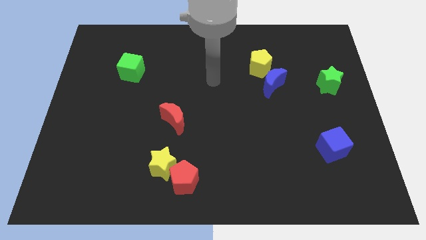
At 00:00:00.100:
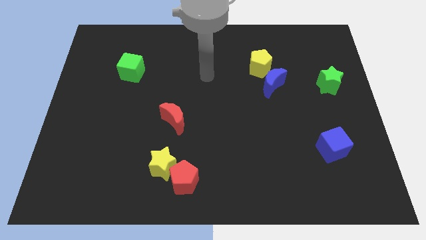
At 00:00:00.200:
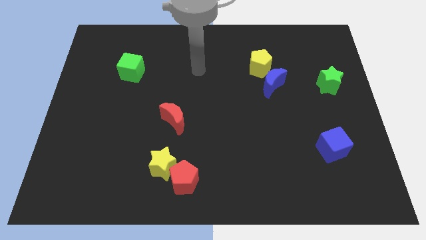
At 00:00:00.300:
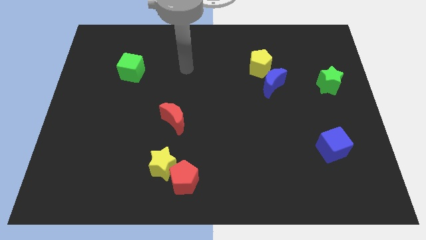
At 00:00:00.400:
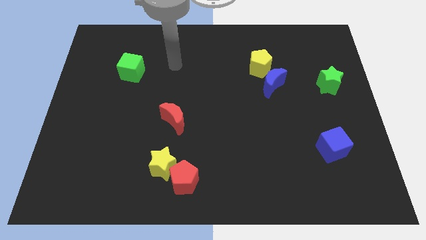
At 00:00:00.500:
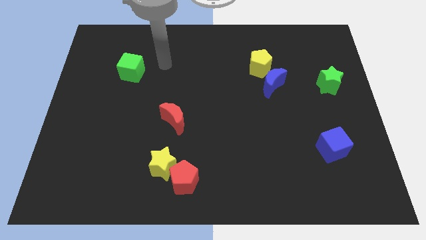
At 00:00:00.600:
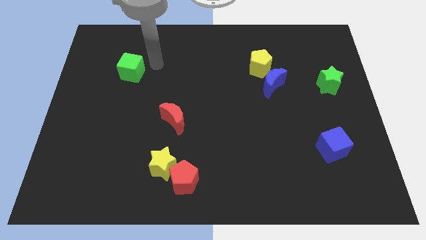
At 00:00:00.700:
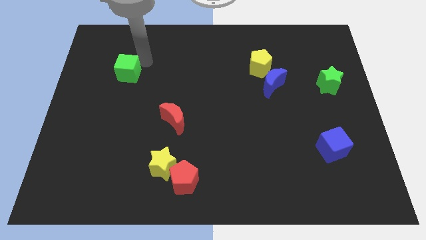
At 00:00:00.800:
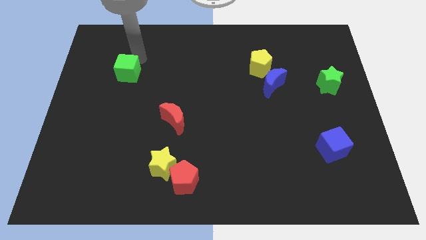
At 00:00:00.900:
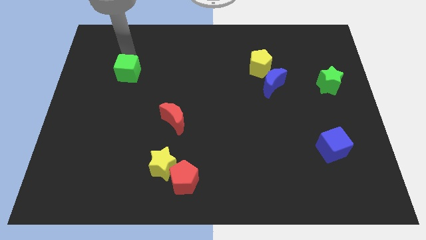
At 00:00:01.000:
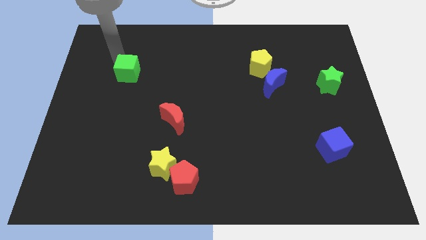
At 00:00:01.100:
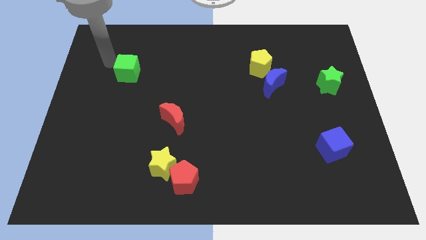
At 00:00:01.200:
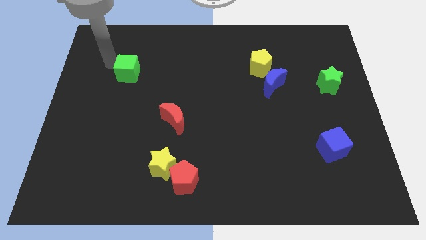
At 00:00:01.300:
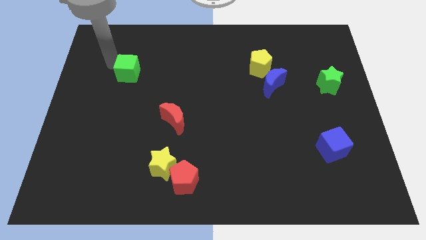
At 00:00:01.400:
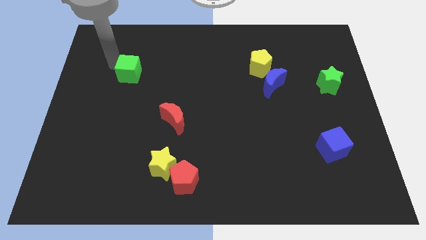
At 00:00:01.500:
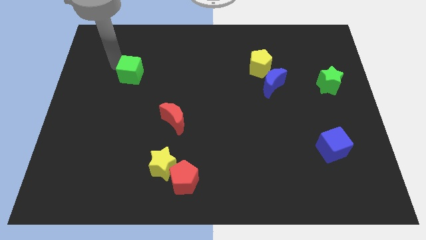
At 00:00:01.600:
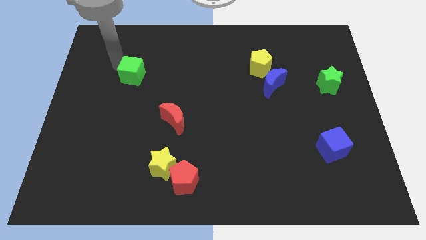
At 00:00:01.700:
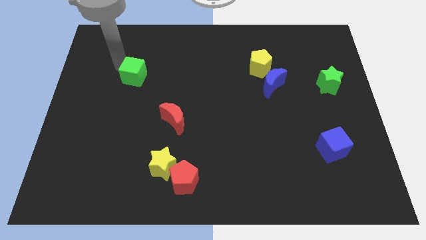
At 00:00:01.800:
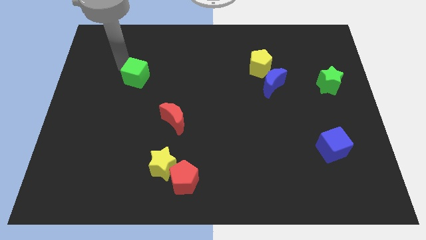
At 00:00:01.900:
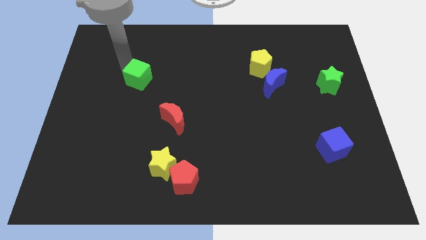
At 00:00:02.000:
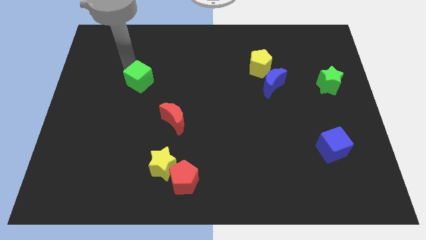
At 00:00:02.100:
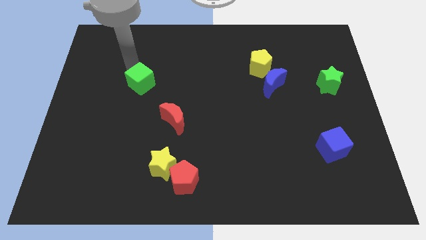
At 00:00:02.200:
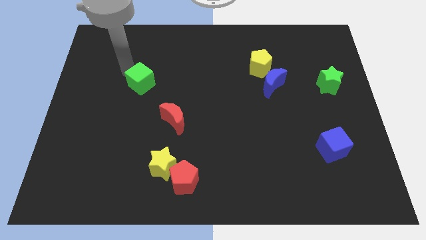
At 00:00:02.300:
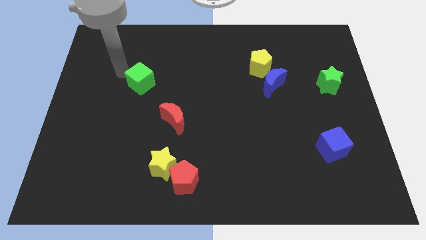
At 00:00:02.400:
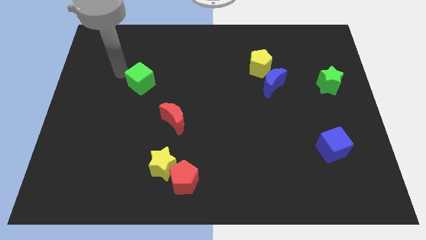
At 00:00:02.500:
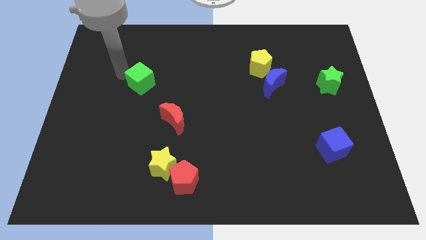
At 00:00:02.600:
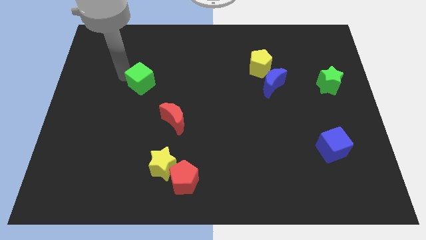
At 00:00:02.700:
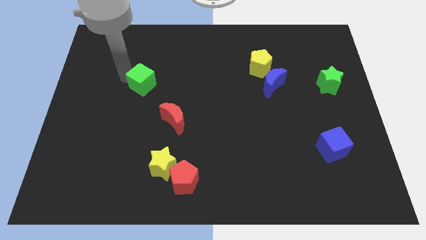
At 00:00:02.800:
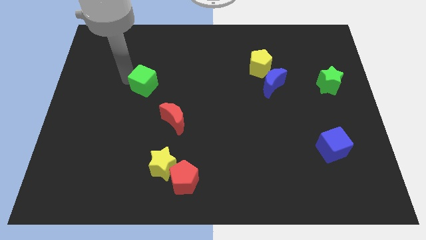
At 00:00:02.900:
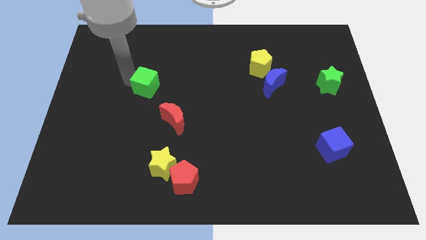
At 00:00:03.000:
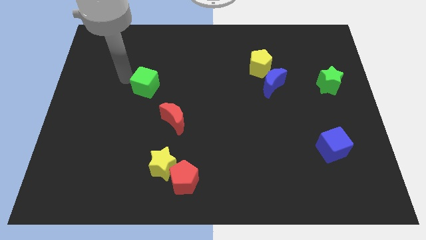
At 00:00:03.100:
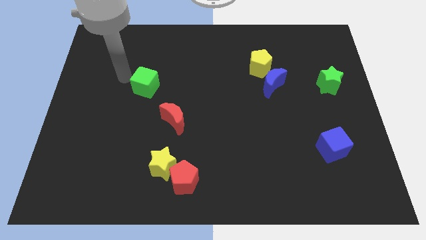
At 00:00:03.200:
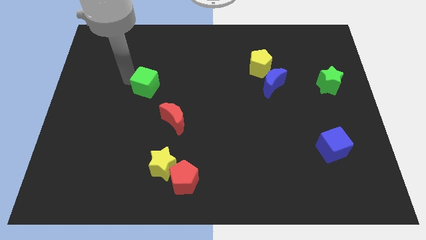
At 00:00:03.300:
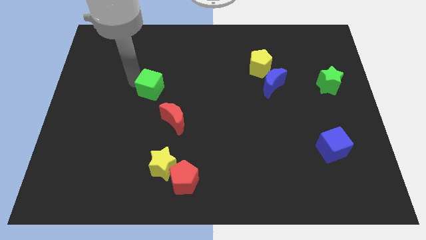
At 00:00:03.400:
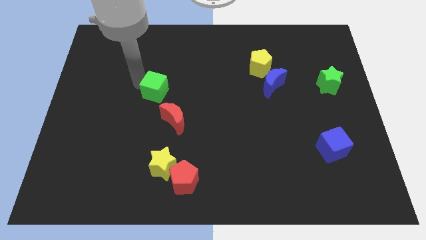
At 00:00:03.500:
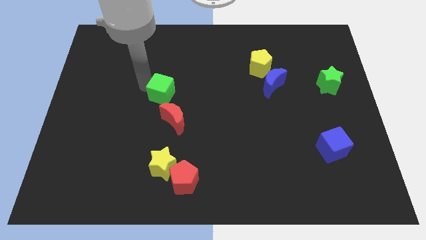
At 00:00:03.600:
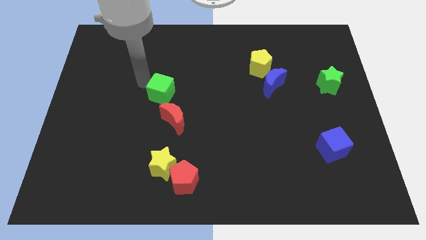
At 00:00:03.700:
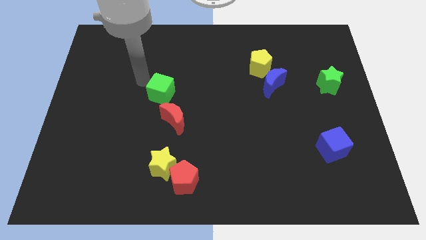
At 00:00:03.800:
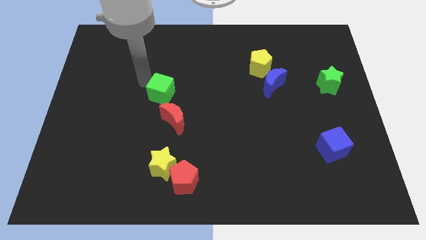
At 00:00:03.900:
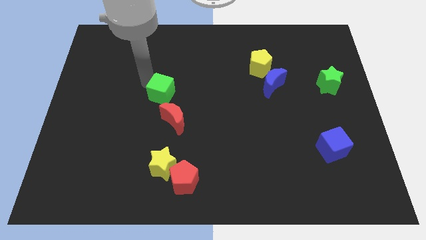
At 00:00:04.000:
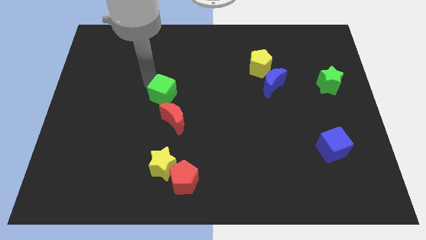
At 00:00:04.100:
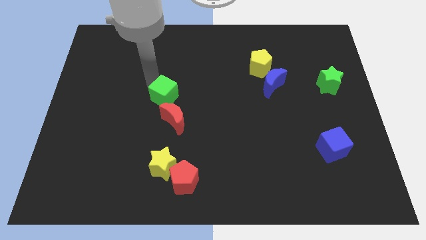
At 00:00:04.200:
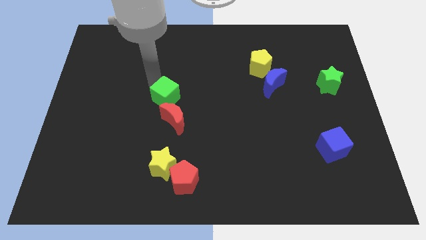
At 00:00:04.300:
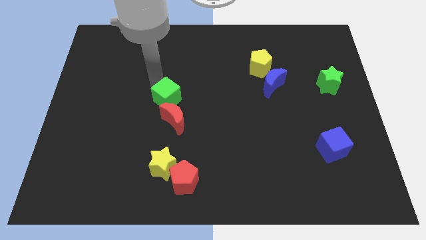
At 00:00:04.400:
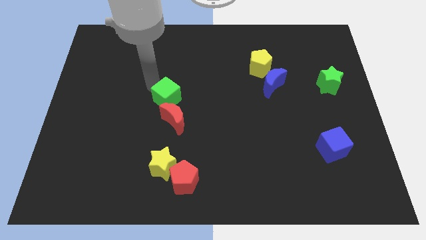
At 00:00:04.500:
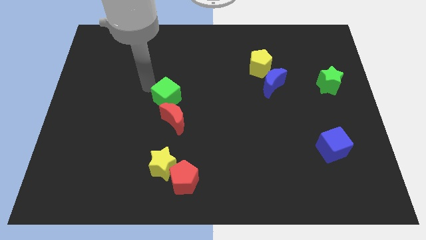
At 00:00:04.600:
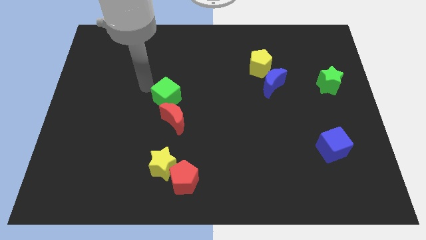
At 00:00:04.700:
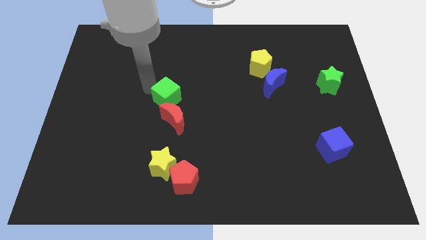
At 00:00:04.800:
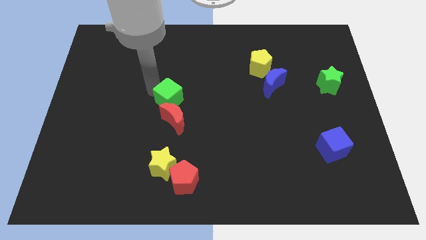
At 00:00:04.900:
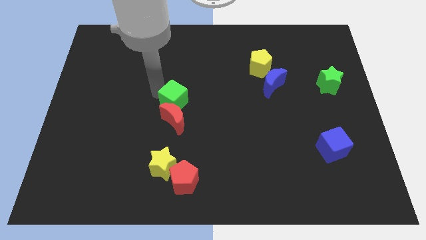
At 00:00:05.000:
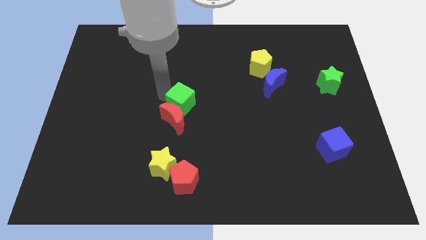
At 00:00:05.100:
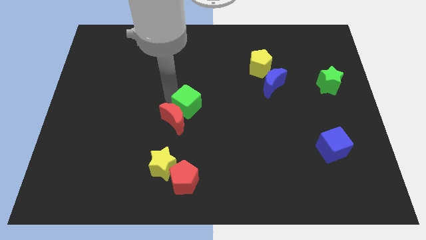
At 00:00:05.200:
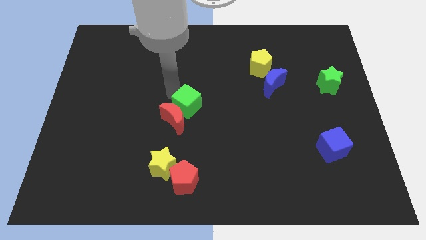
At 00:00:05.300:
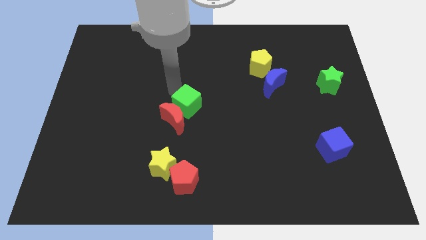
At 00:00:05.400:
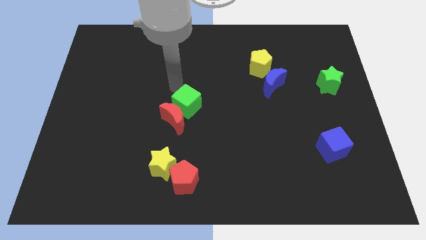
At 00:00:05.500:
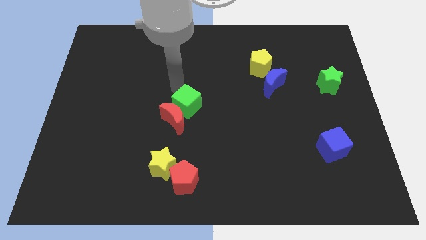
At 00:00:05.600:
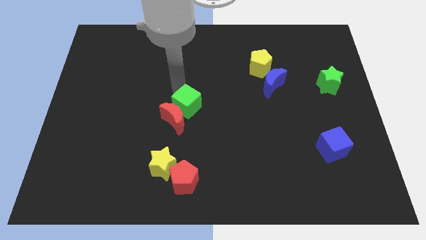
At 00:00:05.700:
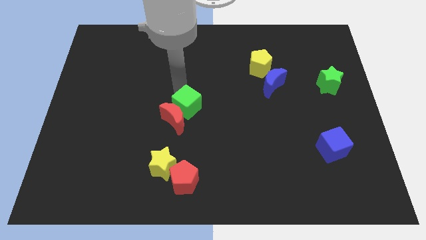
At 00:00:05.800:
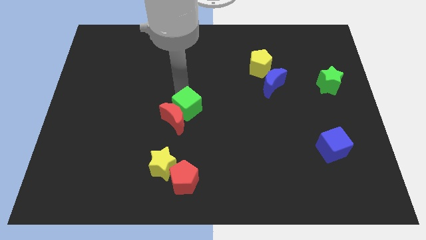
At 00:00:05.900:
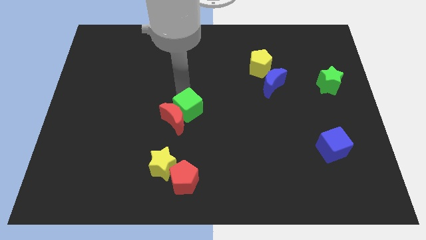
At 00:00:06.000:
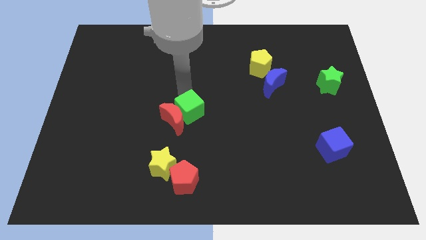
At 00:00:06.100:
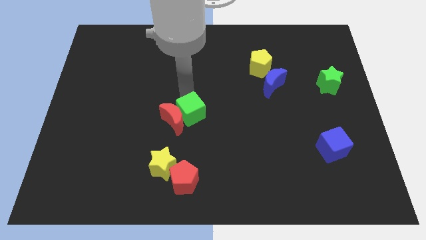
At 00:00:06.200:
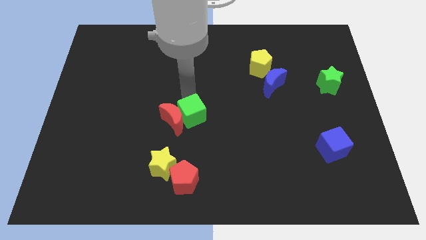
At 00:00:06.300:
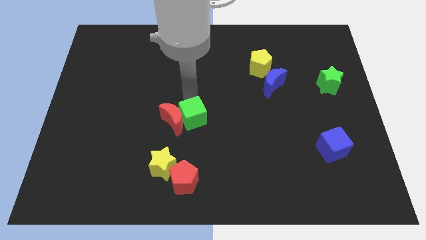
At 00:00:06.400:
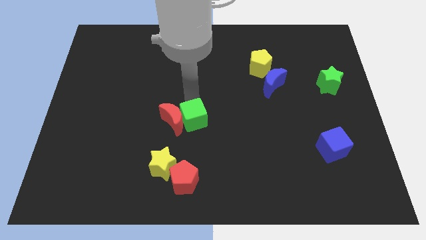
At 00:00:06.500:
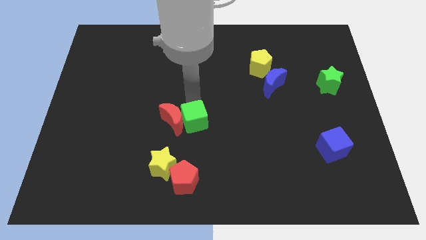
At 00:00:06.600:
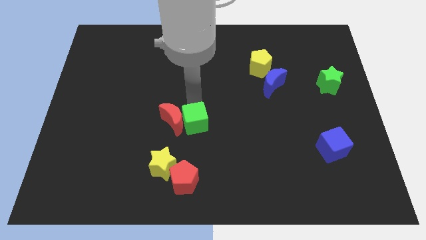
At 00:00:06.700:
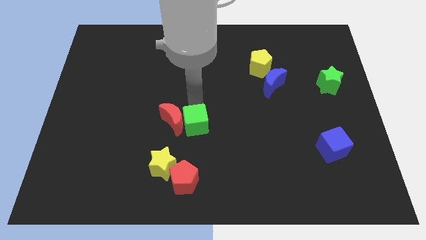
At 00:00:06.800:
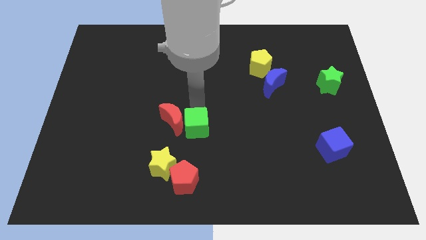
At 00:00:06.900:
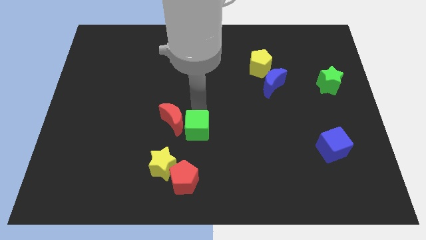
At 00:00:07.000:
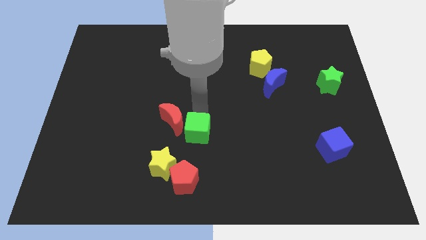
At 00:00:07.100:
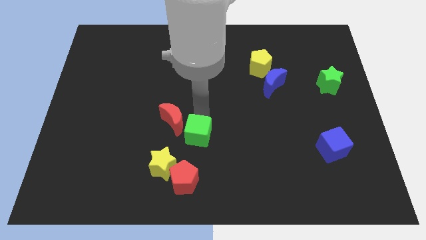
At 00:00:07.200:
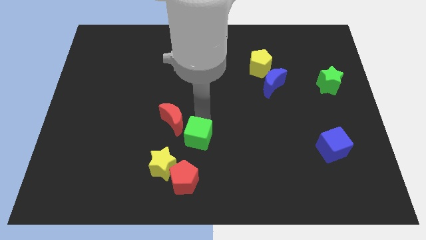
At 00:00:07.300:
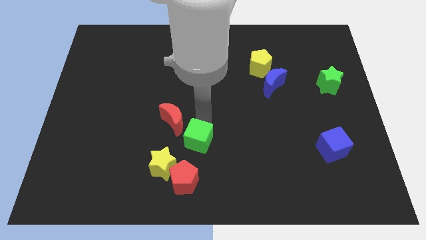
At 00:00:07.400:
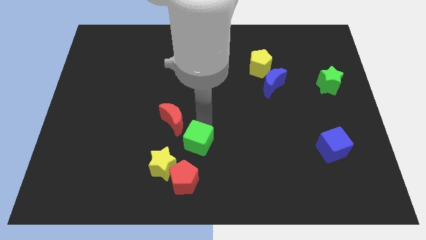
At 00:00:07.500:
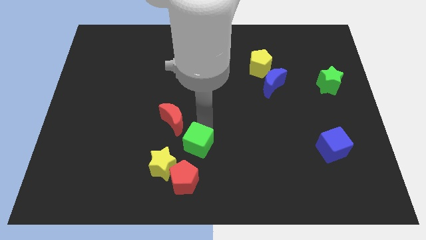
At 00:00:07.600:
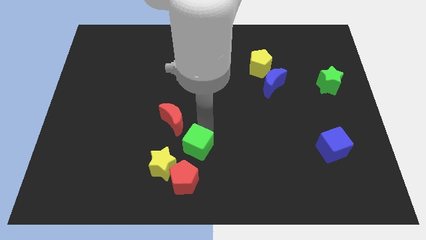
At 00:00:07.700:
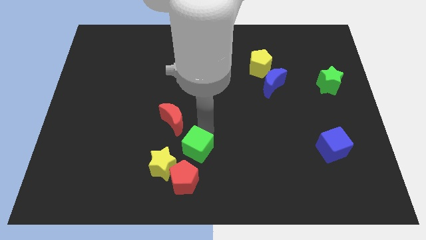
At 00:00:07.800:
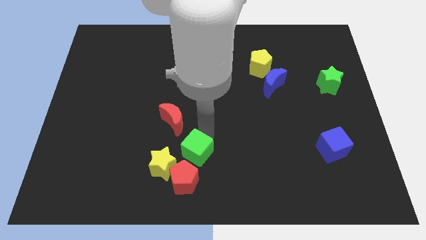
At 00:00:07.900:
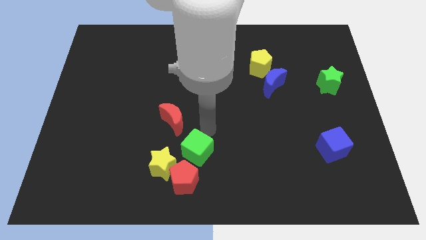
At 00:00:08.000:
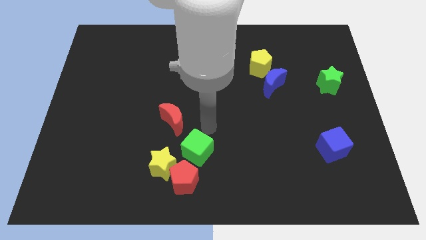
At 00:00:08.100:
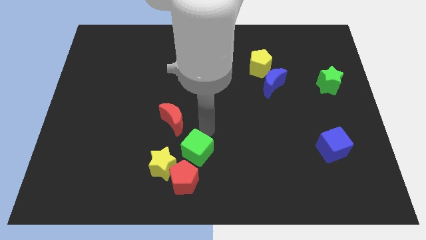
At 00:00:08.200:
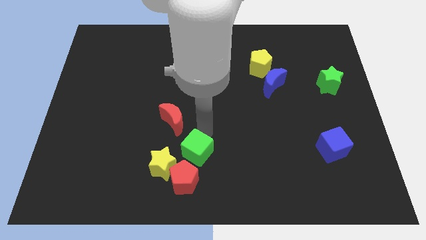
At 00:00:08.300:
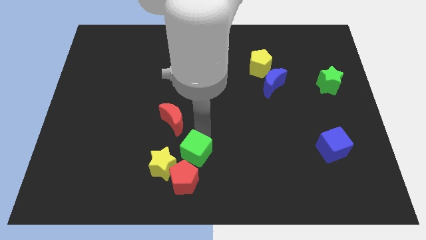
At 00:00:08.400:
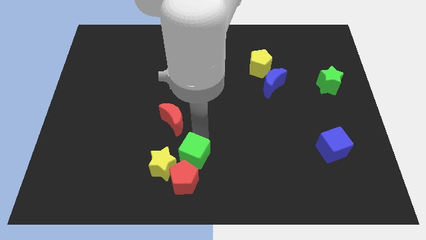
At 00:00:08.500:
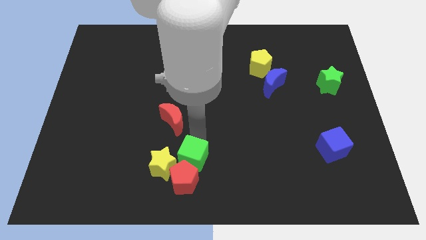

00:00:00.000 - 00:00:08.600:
put the green cube next to the red pentagon
